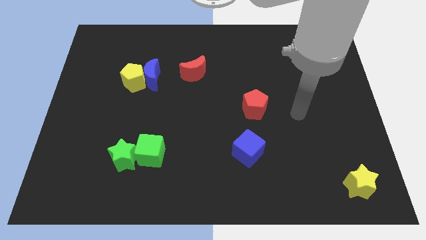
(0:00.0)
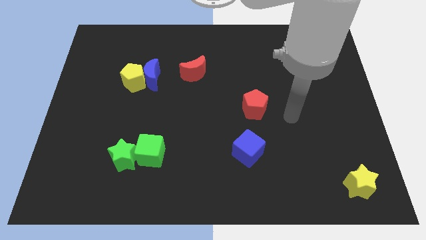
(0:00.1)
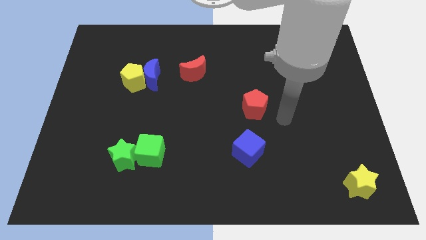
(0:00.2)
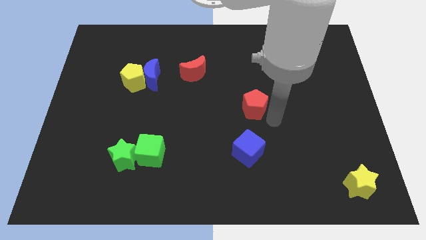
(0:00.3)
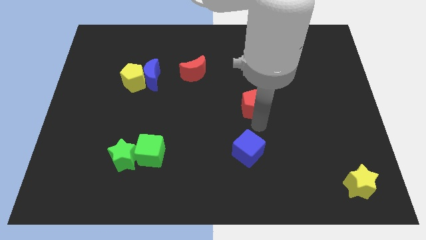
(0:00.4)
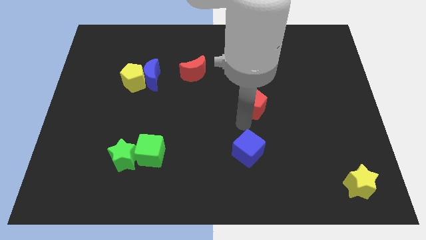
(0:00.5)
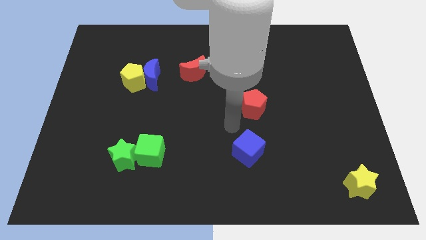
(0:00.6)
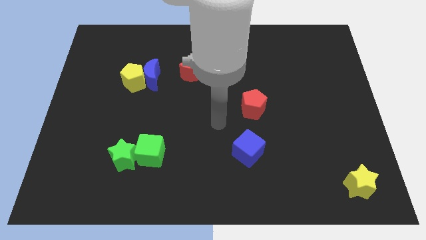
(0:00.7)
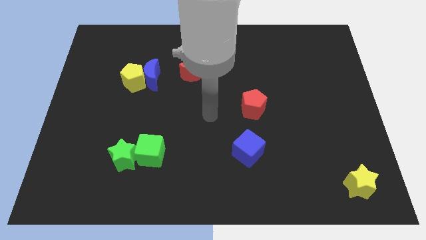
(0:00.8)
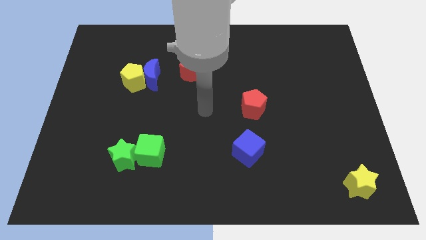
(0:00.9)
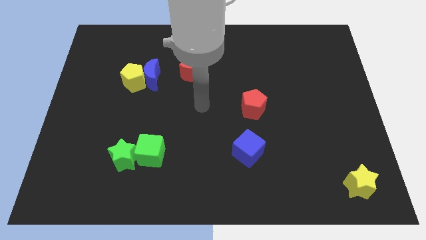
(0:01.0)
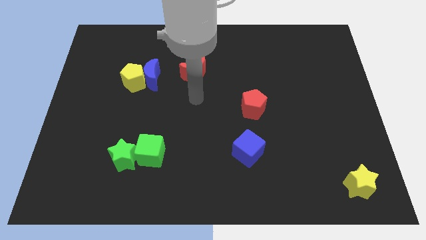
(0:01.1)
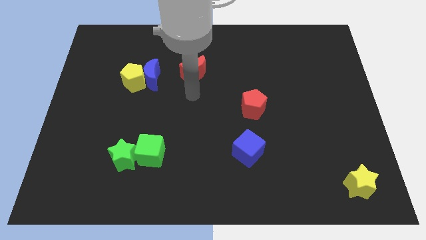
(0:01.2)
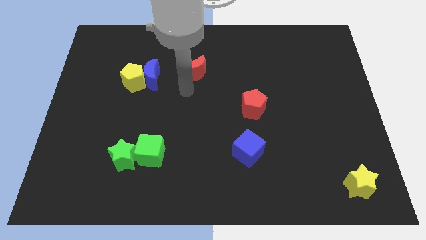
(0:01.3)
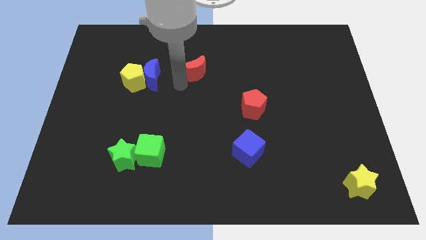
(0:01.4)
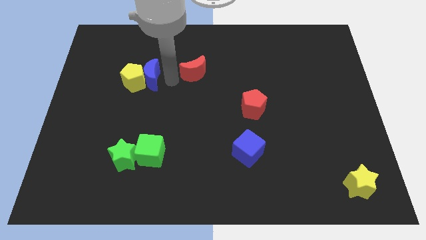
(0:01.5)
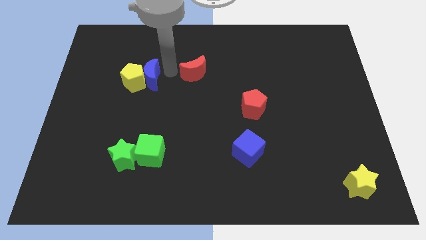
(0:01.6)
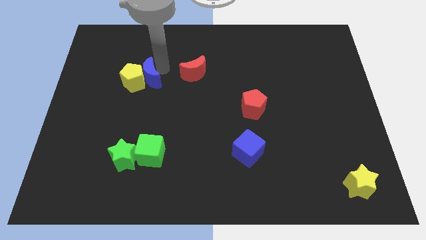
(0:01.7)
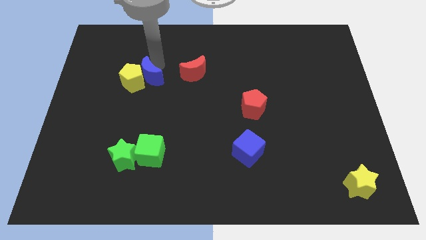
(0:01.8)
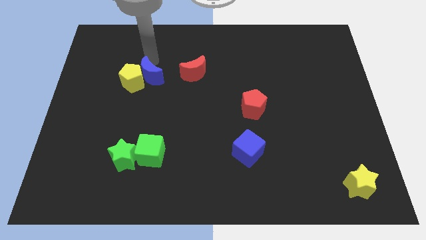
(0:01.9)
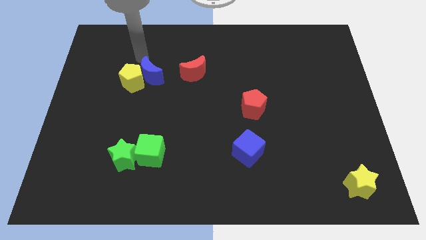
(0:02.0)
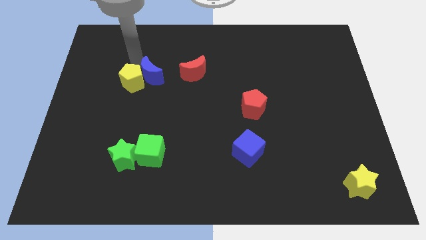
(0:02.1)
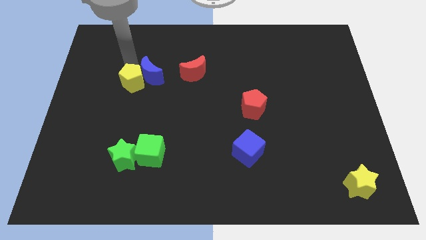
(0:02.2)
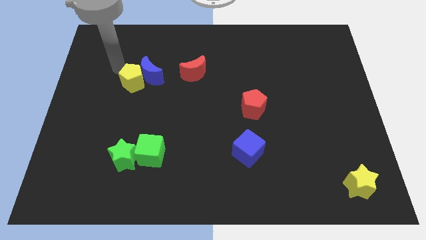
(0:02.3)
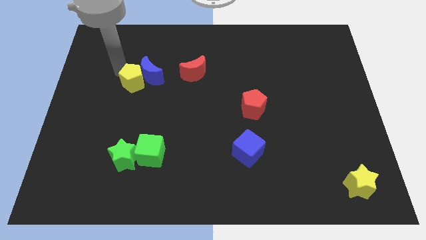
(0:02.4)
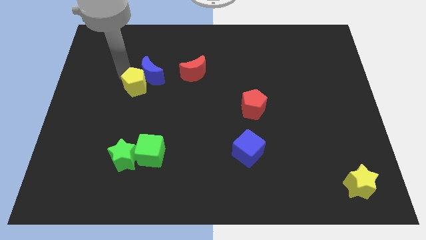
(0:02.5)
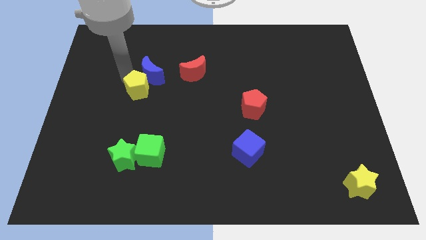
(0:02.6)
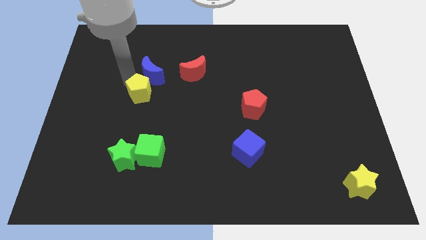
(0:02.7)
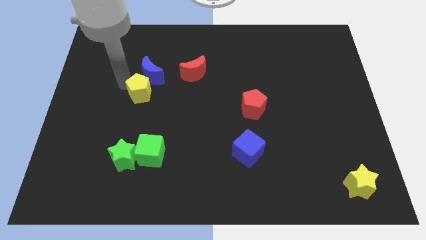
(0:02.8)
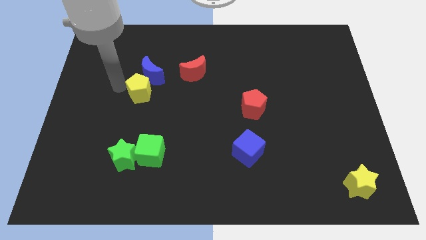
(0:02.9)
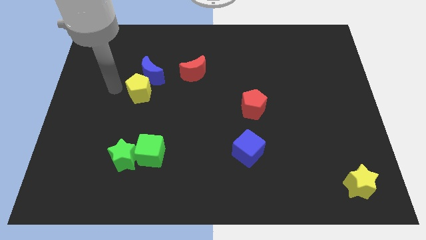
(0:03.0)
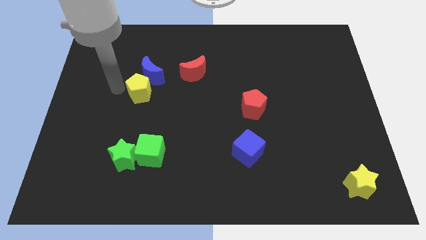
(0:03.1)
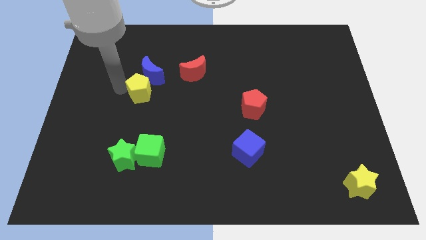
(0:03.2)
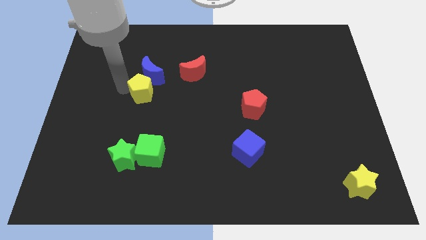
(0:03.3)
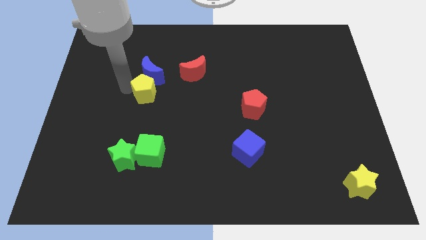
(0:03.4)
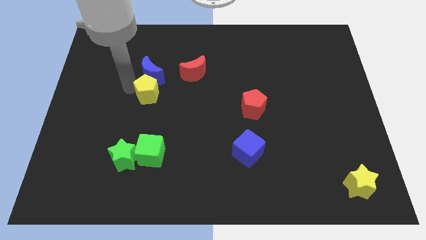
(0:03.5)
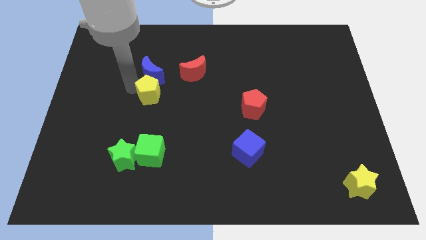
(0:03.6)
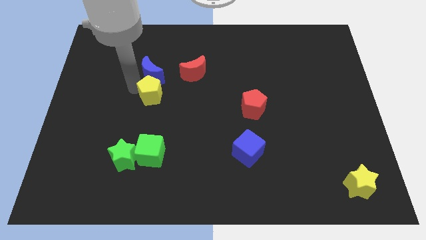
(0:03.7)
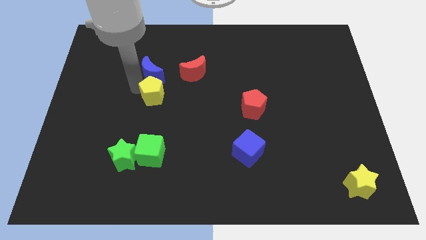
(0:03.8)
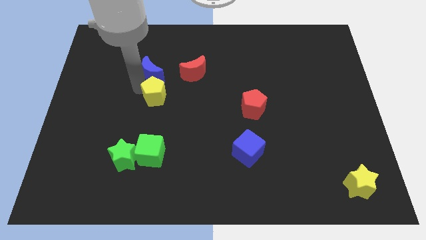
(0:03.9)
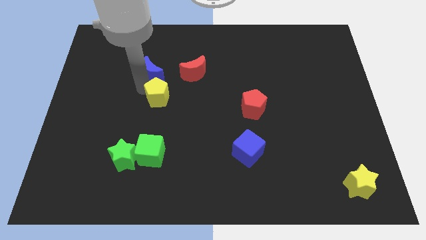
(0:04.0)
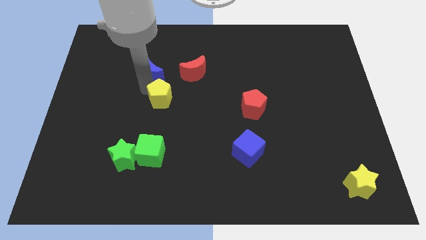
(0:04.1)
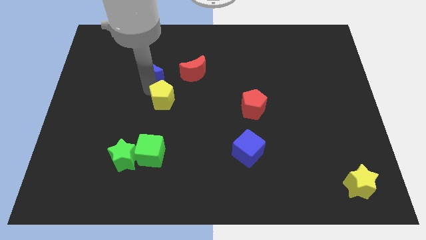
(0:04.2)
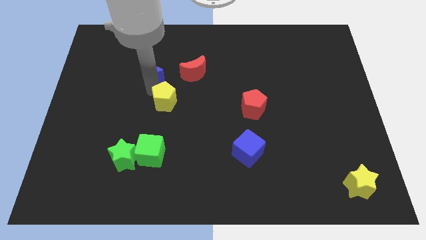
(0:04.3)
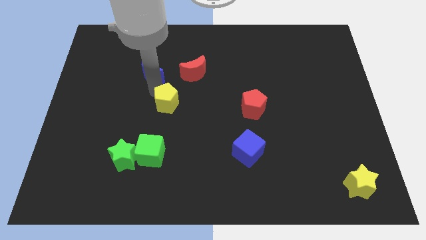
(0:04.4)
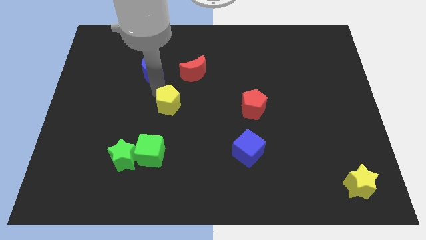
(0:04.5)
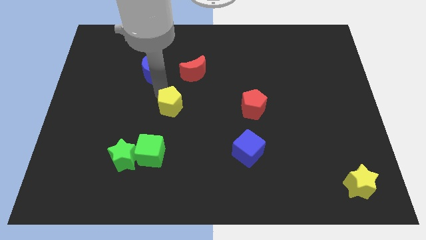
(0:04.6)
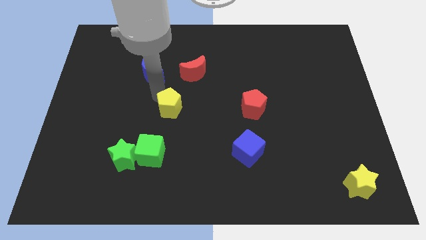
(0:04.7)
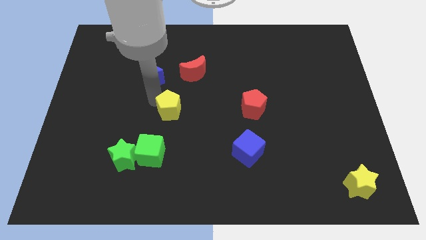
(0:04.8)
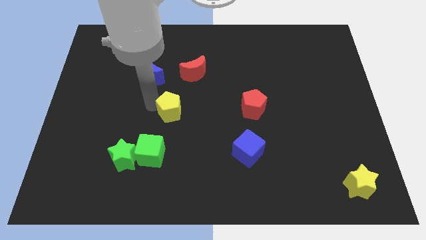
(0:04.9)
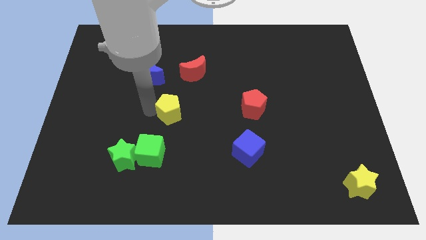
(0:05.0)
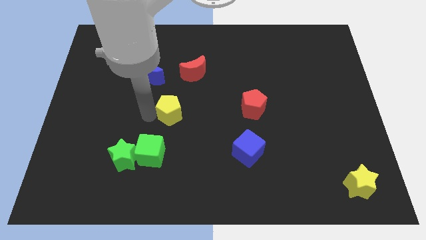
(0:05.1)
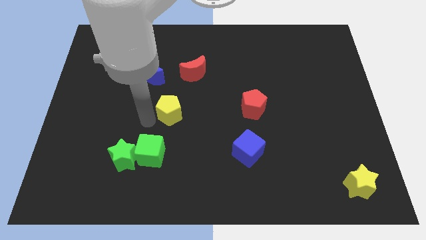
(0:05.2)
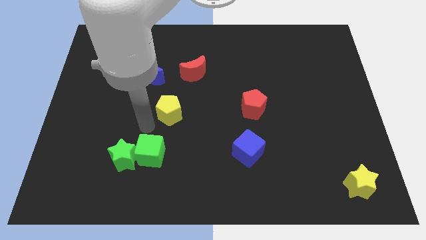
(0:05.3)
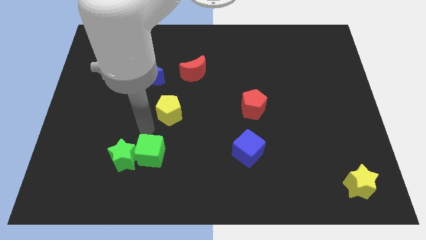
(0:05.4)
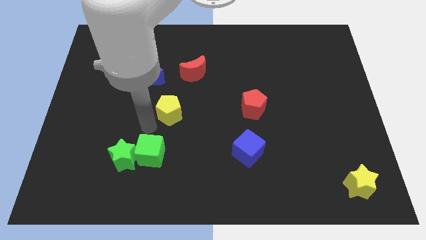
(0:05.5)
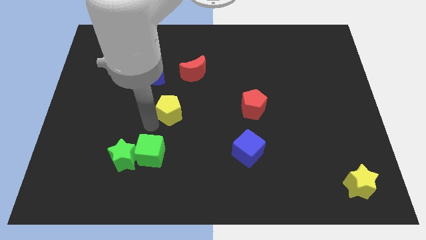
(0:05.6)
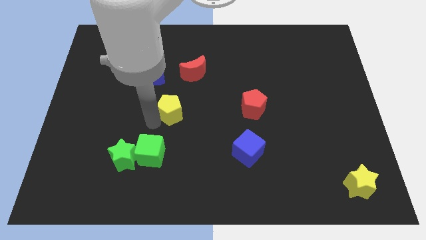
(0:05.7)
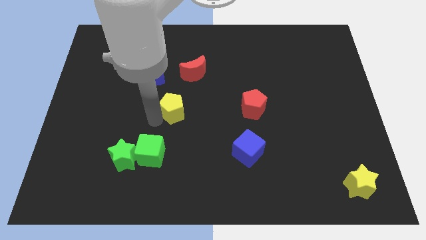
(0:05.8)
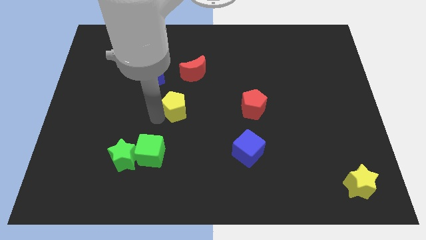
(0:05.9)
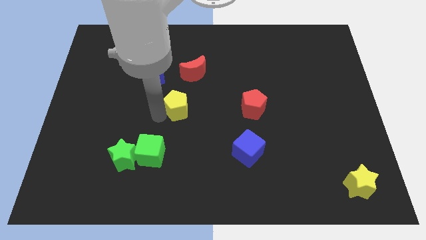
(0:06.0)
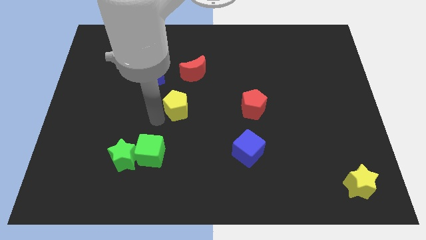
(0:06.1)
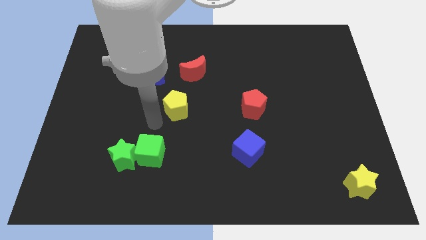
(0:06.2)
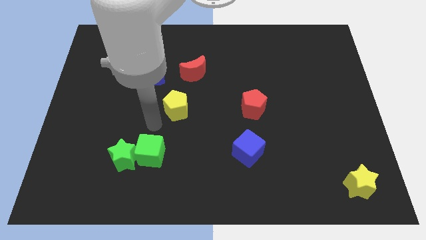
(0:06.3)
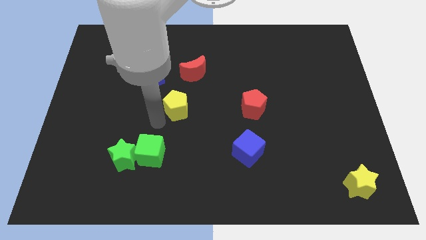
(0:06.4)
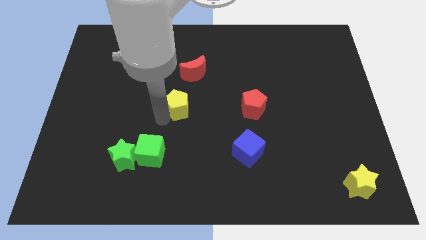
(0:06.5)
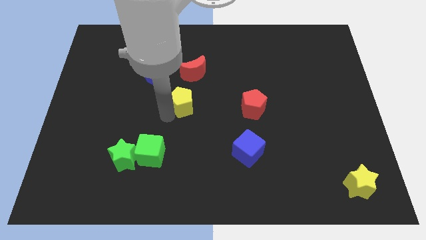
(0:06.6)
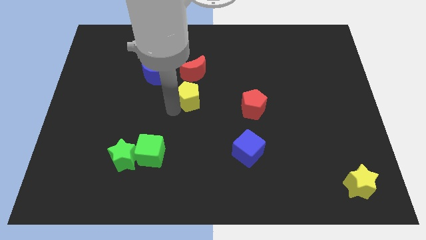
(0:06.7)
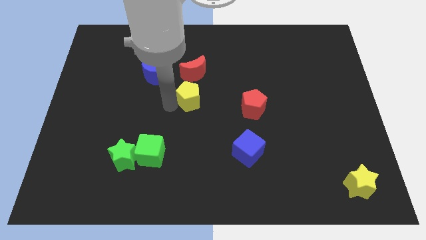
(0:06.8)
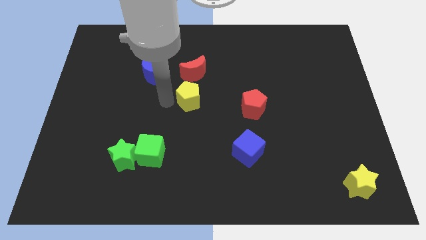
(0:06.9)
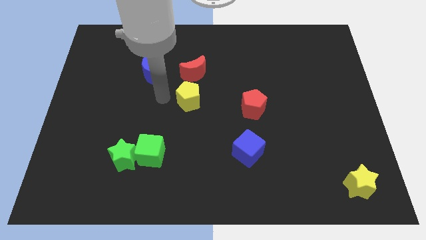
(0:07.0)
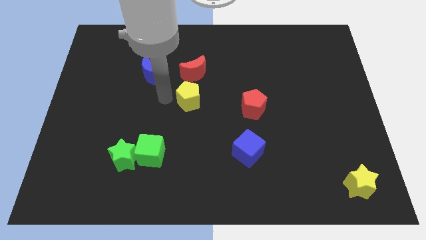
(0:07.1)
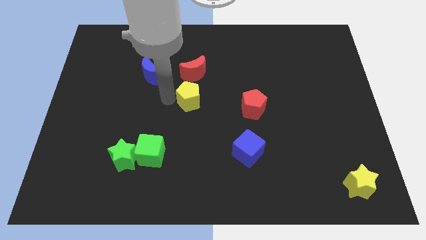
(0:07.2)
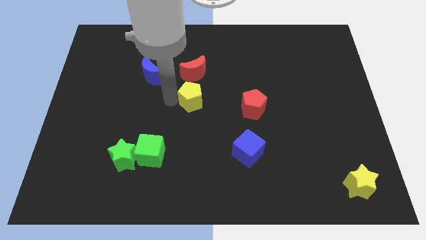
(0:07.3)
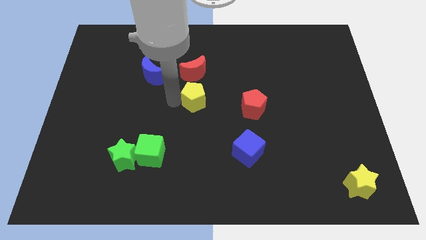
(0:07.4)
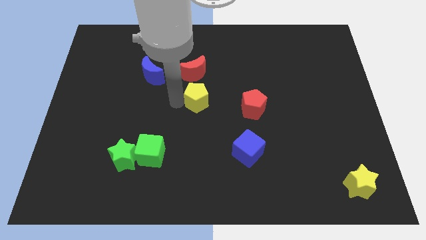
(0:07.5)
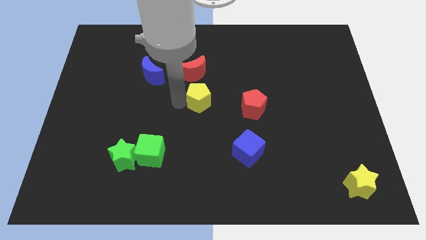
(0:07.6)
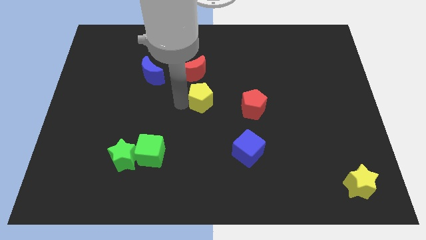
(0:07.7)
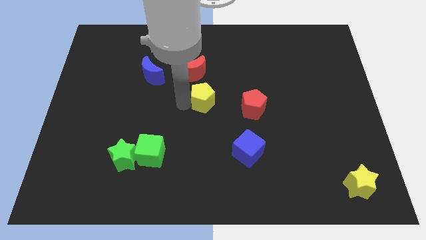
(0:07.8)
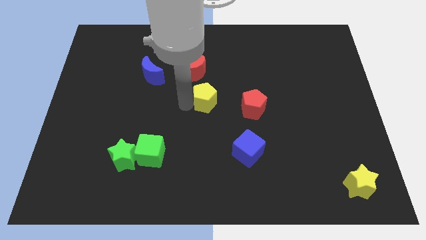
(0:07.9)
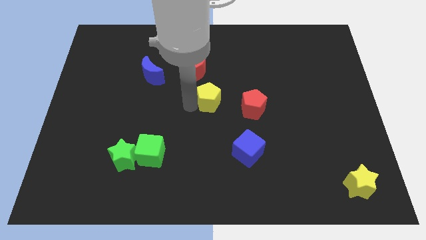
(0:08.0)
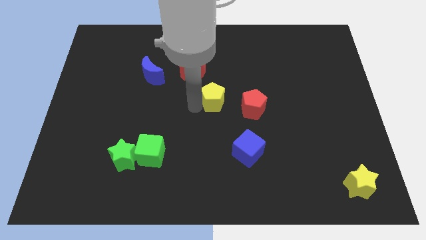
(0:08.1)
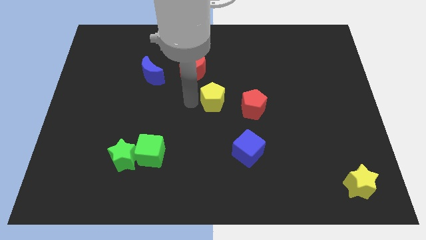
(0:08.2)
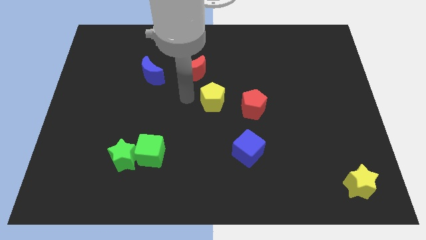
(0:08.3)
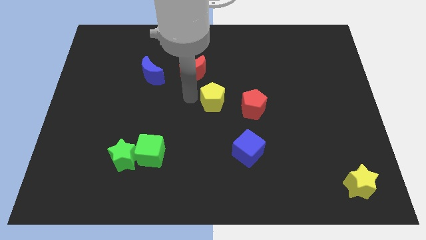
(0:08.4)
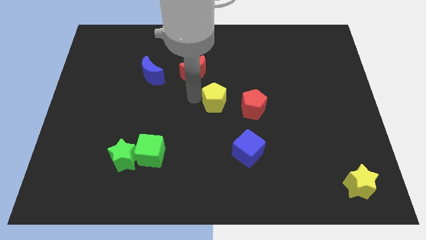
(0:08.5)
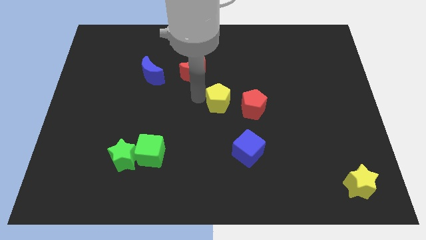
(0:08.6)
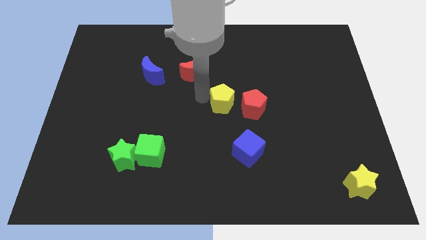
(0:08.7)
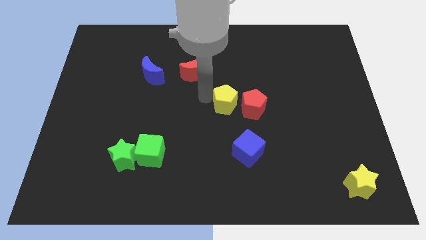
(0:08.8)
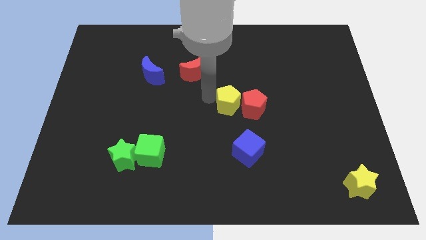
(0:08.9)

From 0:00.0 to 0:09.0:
move the yellow pentagon to the red pentagon
